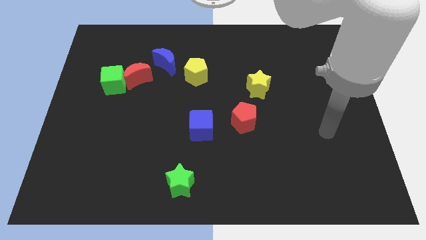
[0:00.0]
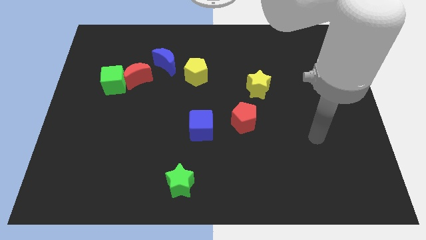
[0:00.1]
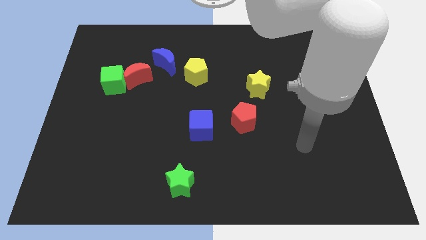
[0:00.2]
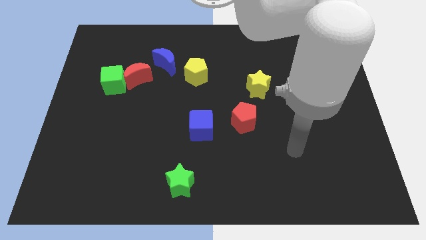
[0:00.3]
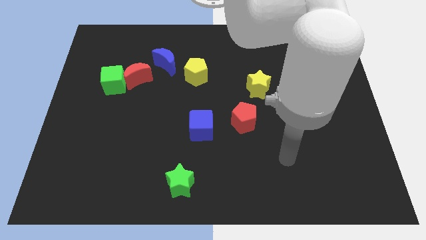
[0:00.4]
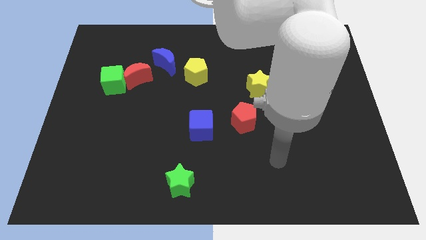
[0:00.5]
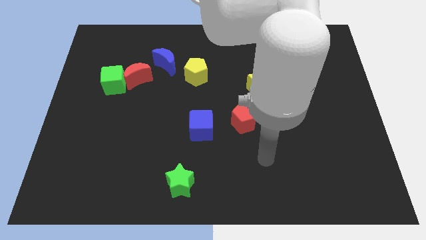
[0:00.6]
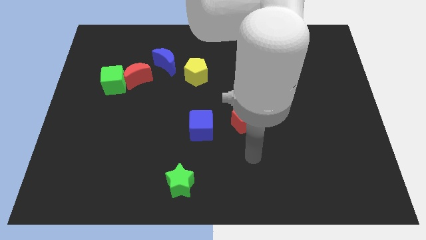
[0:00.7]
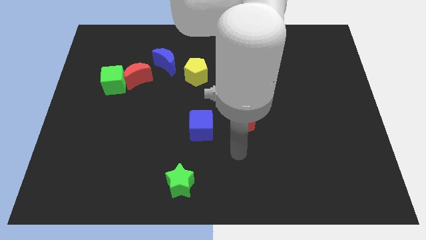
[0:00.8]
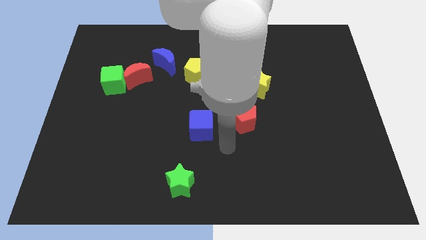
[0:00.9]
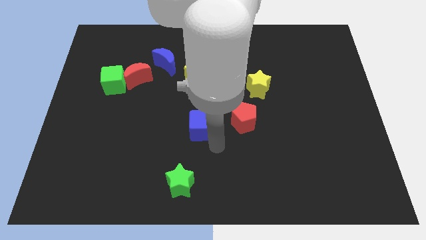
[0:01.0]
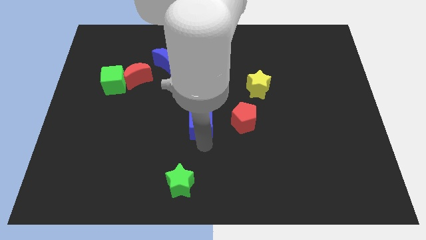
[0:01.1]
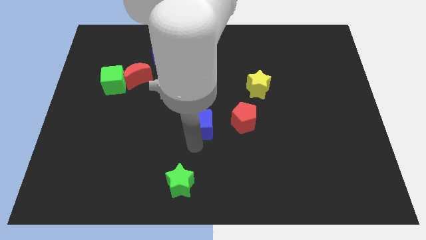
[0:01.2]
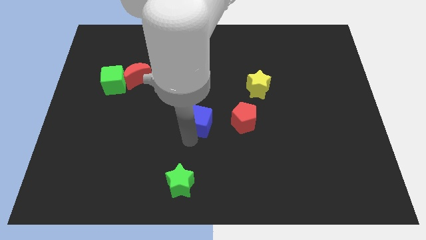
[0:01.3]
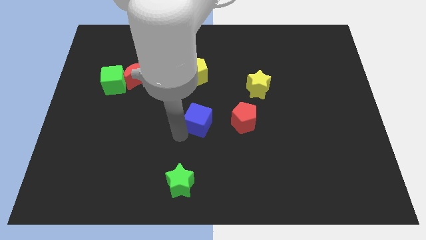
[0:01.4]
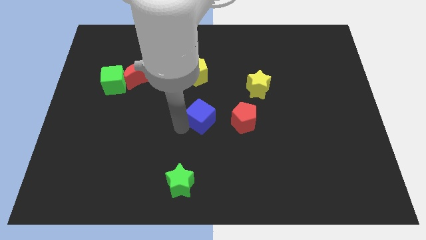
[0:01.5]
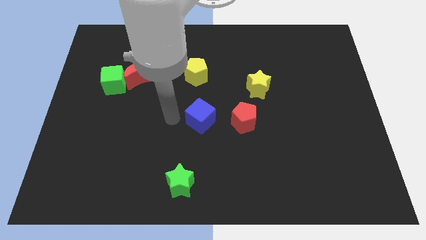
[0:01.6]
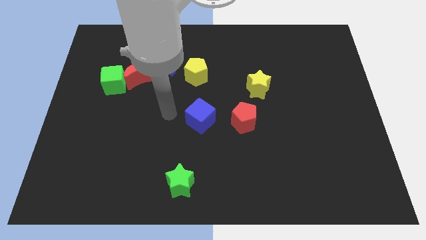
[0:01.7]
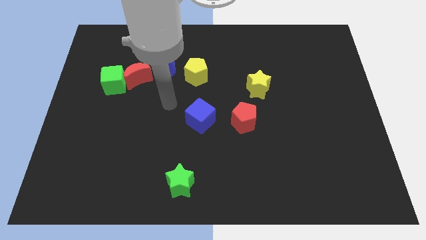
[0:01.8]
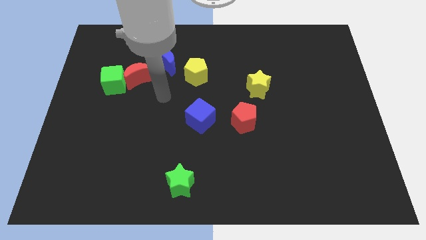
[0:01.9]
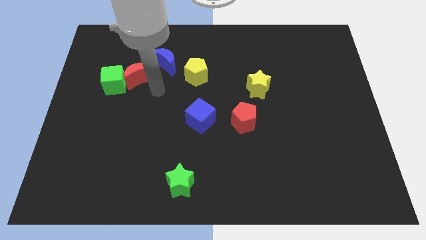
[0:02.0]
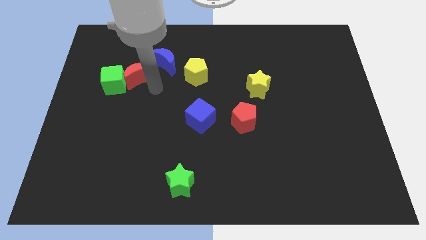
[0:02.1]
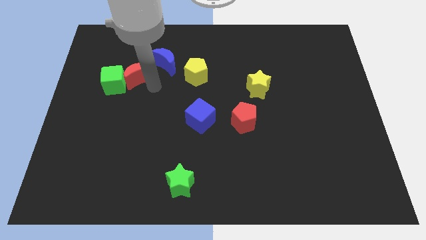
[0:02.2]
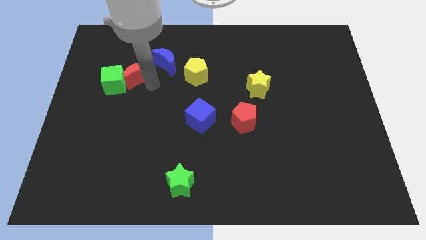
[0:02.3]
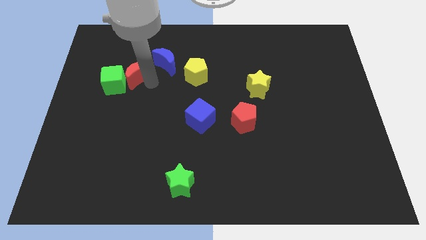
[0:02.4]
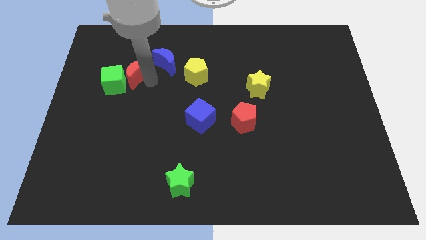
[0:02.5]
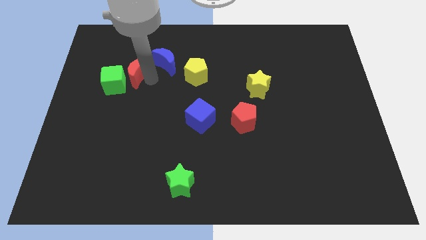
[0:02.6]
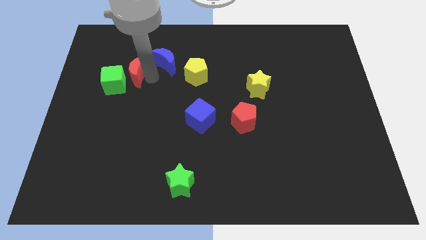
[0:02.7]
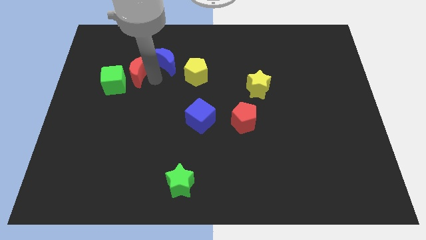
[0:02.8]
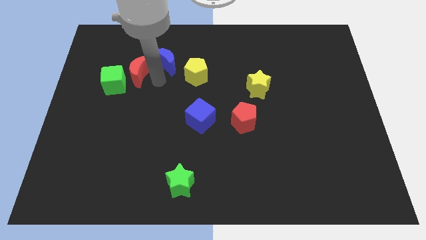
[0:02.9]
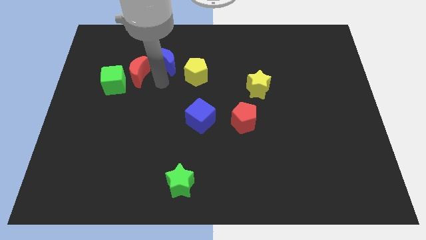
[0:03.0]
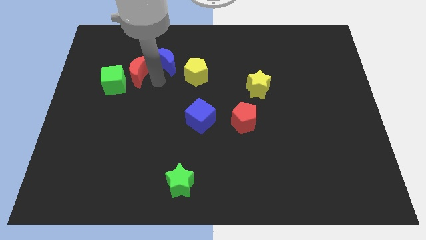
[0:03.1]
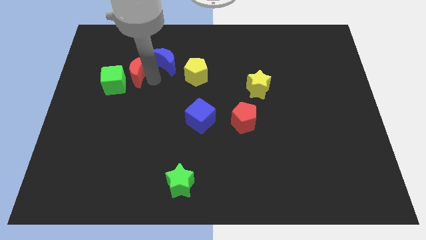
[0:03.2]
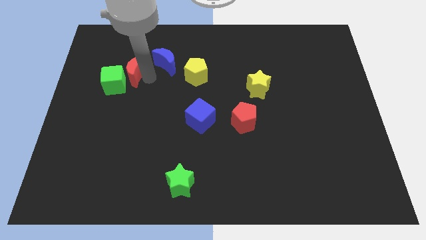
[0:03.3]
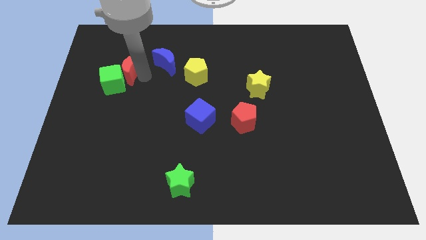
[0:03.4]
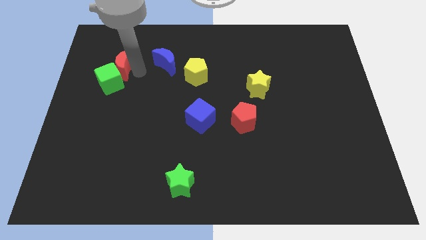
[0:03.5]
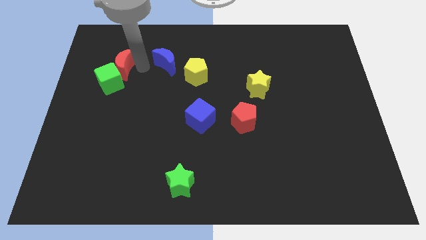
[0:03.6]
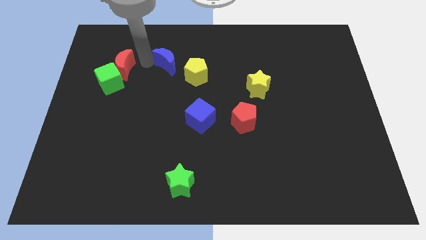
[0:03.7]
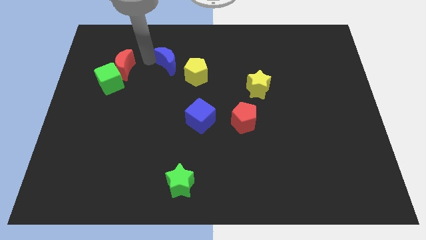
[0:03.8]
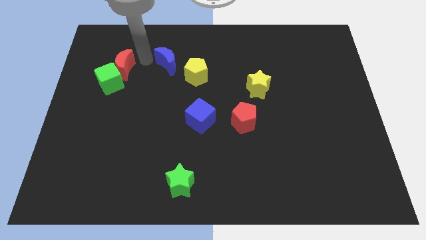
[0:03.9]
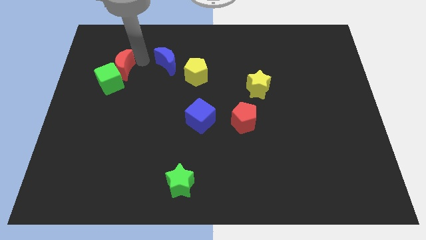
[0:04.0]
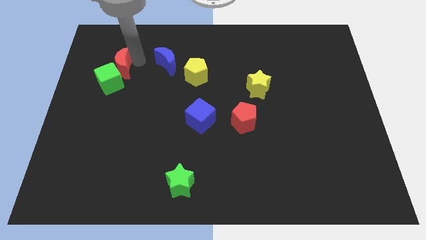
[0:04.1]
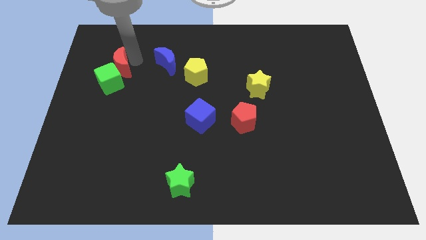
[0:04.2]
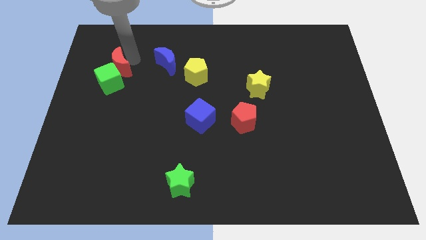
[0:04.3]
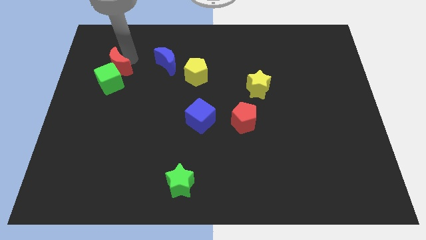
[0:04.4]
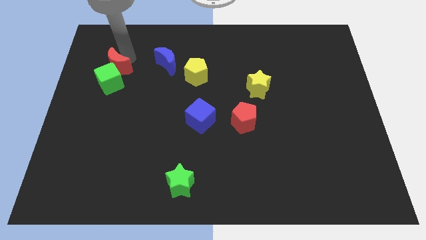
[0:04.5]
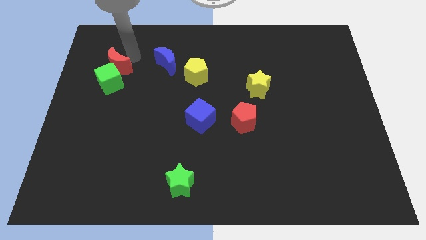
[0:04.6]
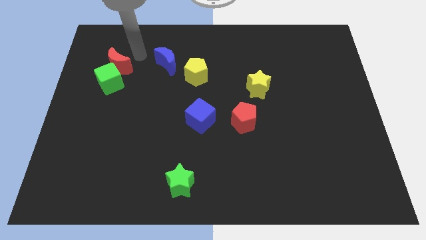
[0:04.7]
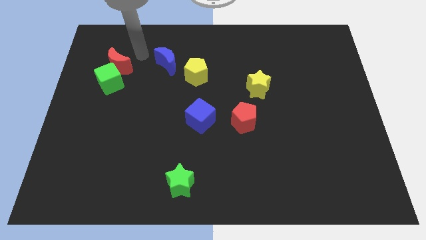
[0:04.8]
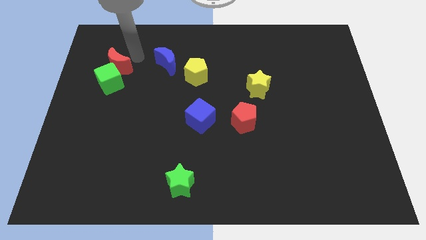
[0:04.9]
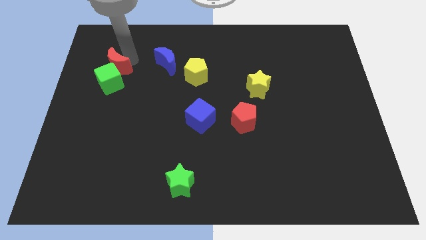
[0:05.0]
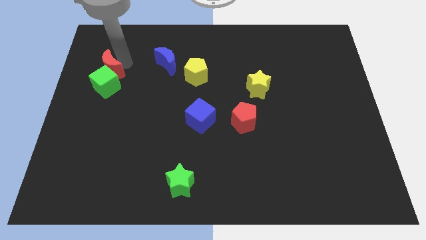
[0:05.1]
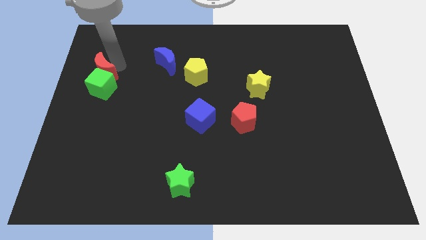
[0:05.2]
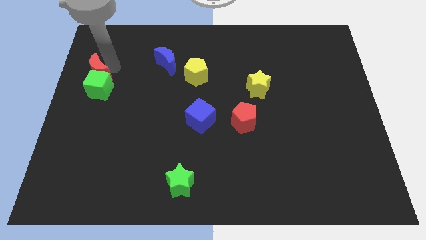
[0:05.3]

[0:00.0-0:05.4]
push the red moon to the left side

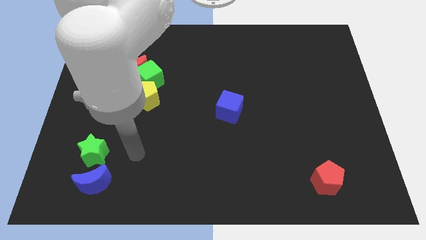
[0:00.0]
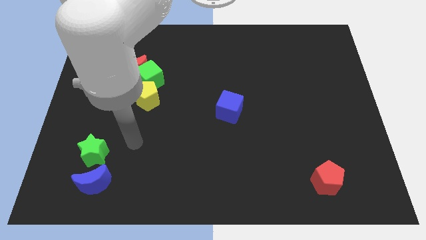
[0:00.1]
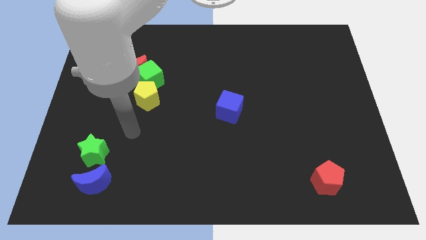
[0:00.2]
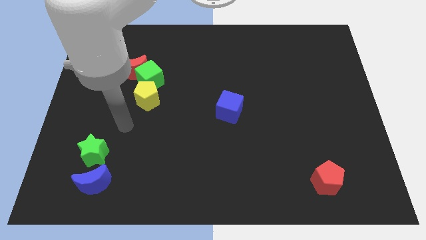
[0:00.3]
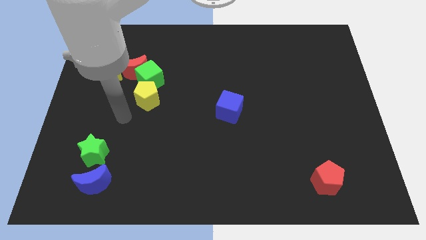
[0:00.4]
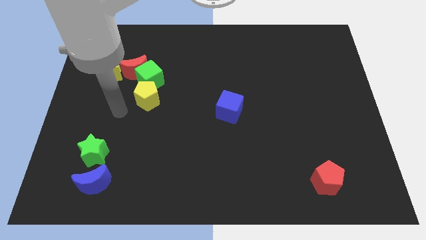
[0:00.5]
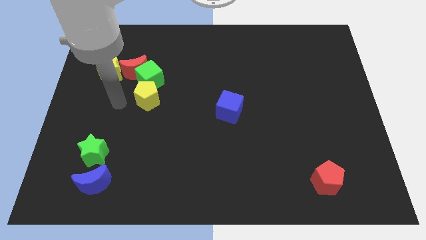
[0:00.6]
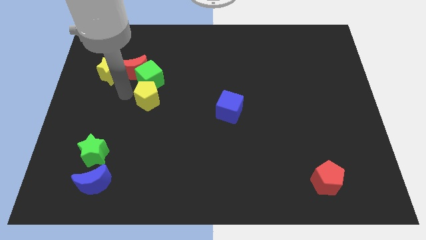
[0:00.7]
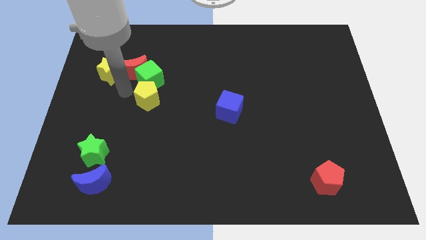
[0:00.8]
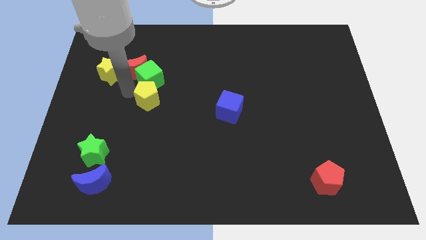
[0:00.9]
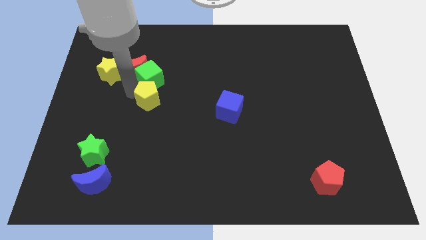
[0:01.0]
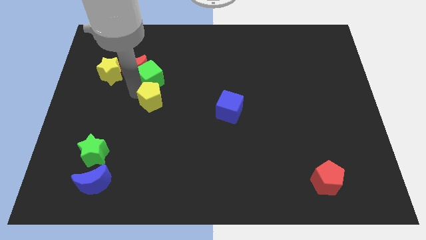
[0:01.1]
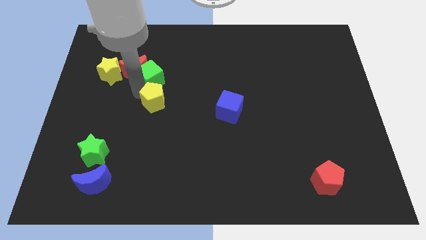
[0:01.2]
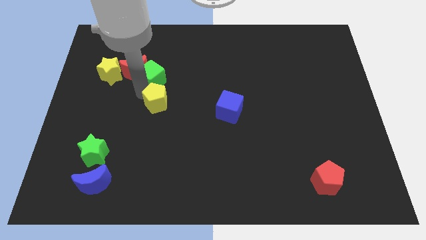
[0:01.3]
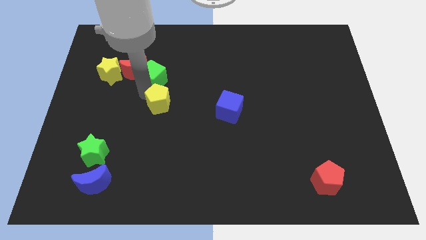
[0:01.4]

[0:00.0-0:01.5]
move the yellow pentagon to the middle of the board
